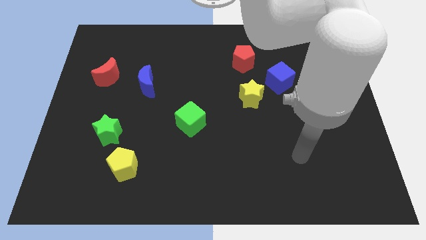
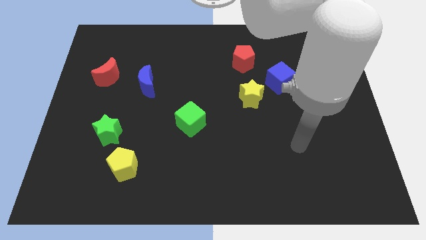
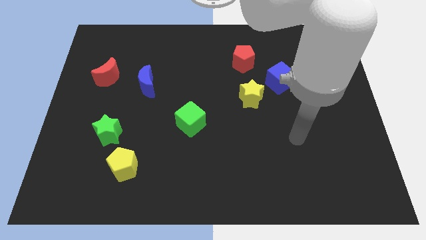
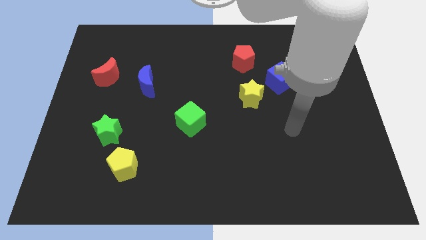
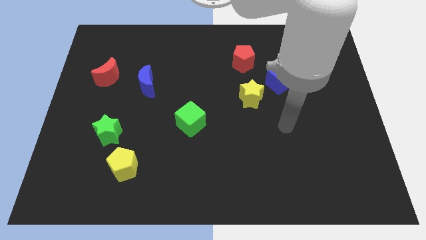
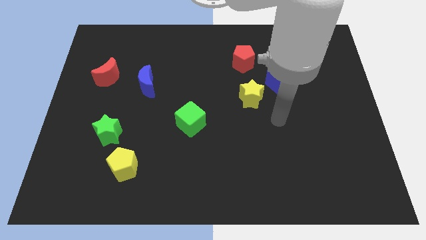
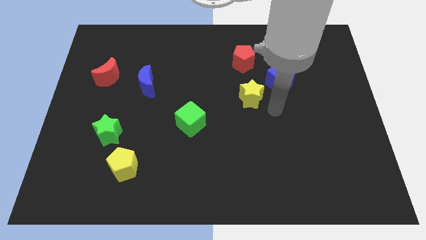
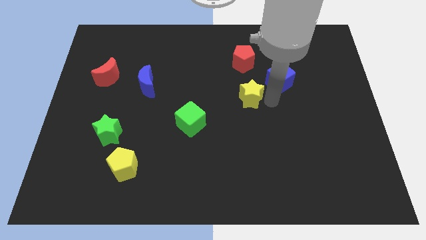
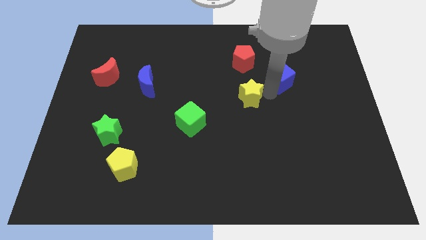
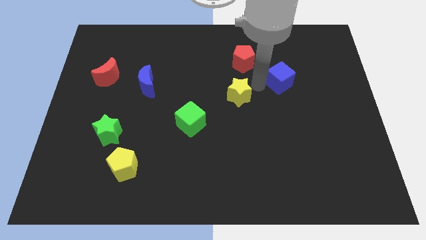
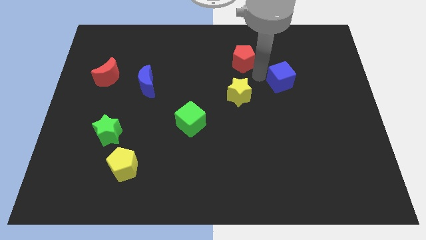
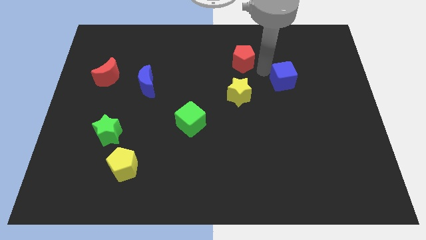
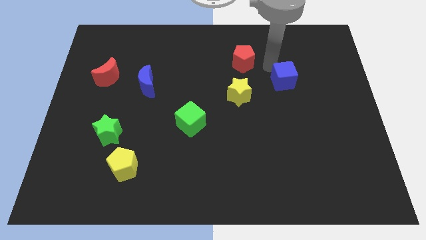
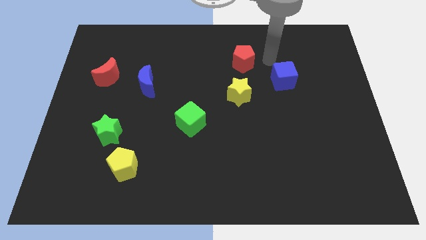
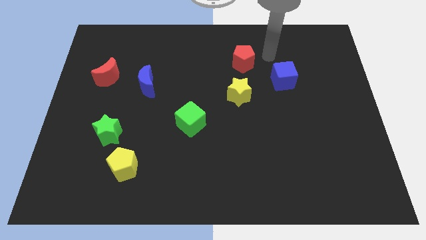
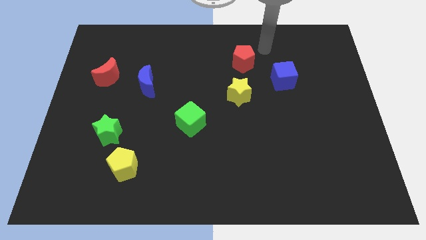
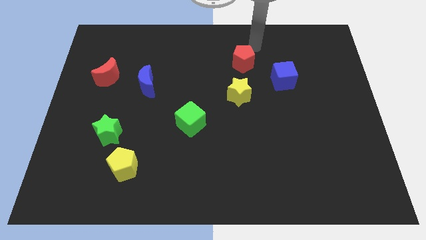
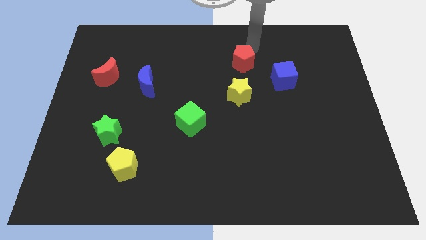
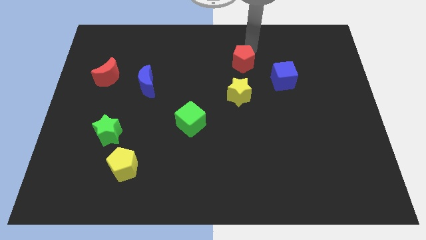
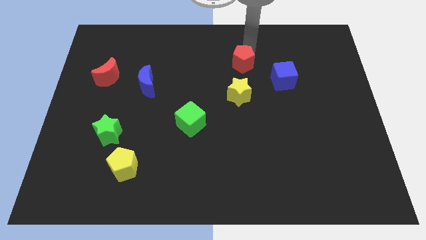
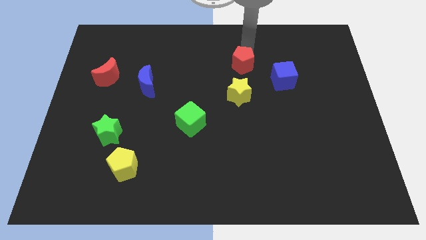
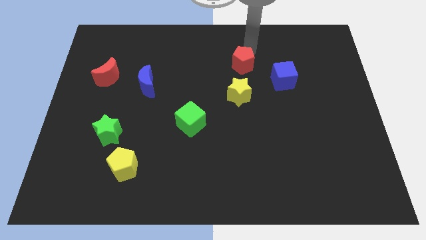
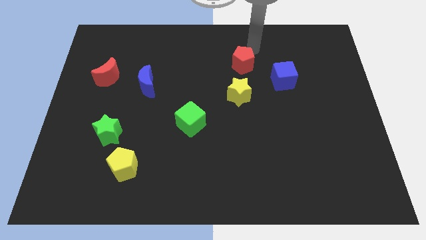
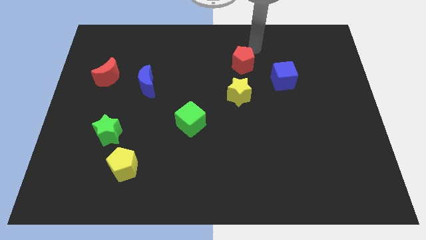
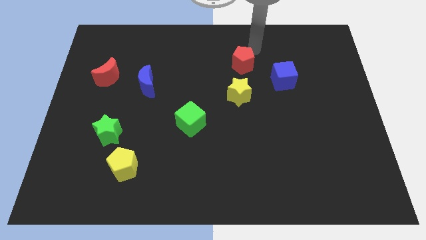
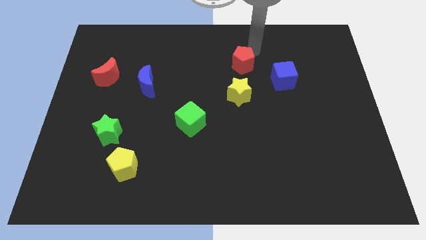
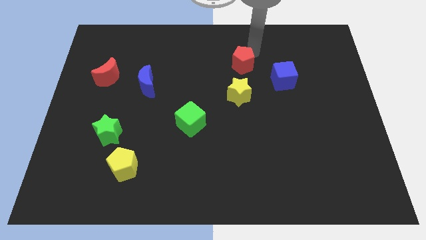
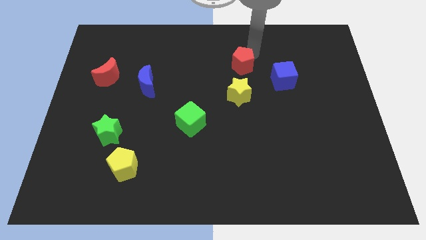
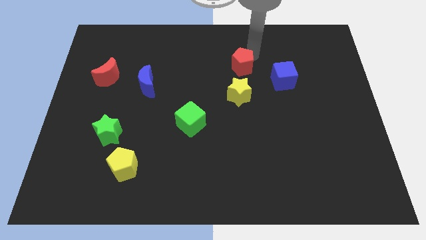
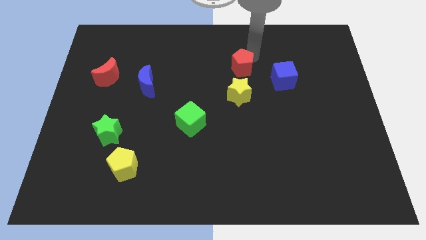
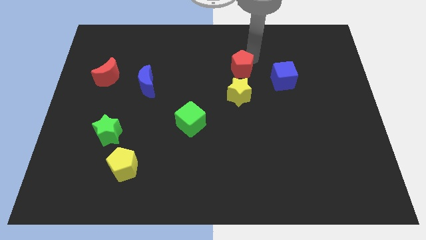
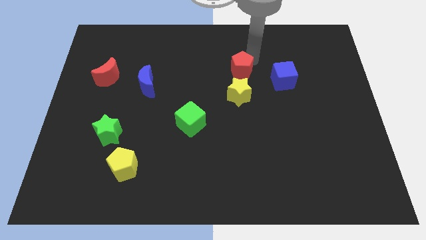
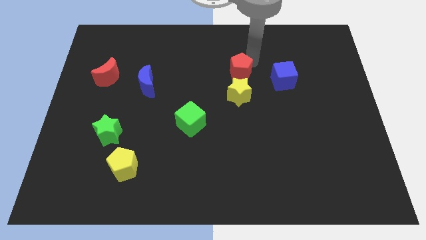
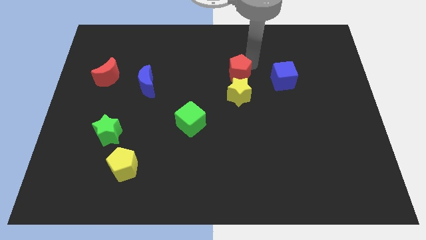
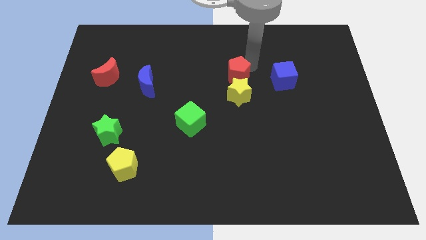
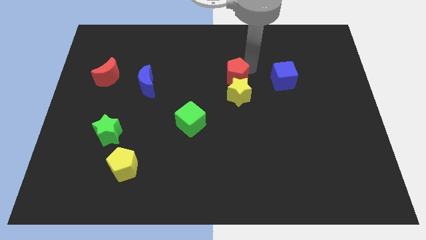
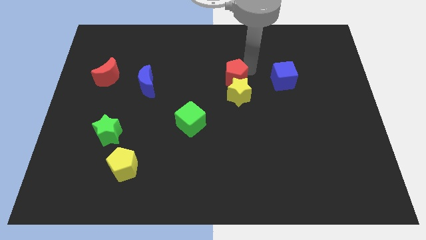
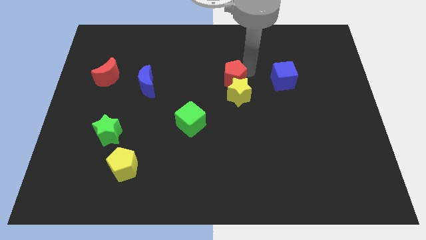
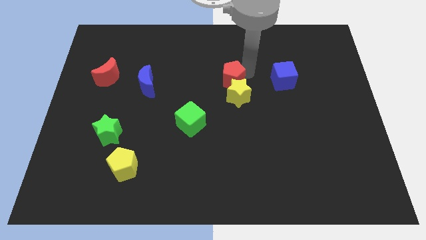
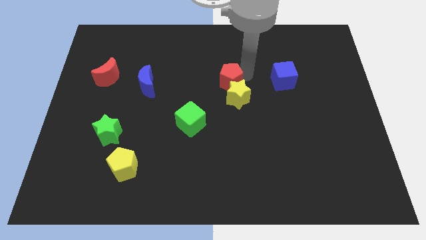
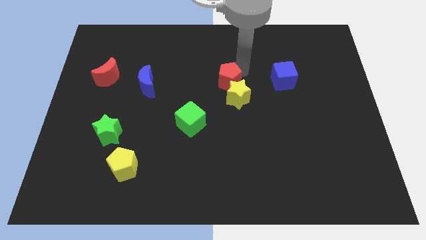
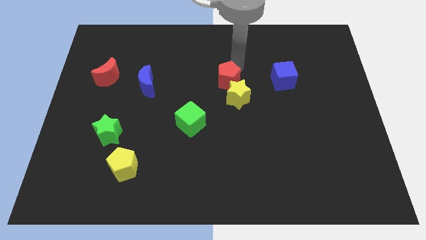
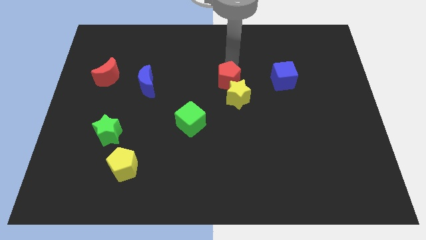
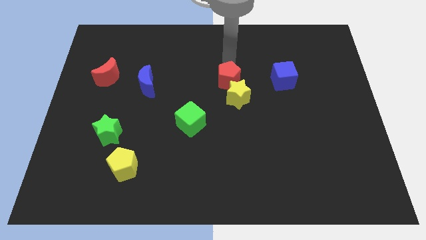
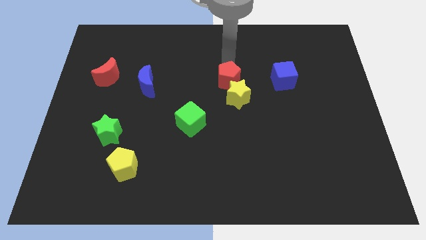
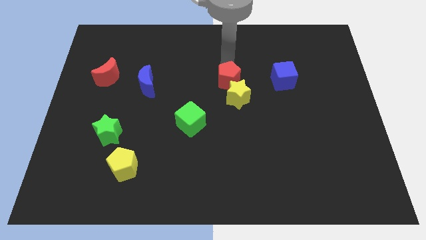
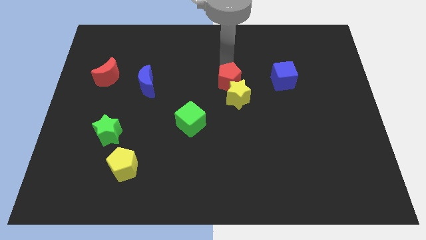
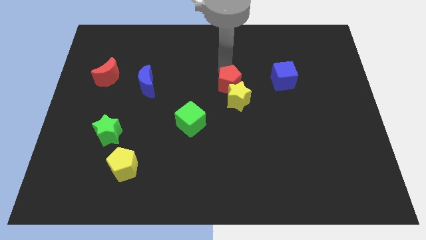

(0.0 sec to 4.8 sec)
slightly push the red pentagon downwards

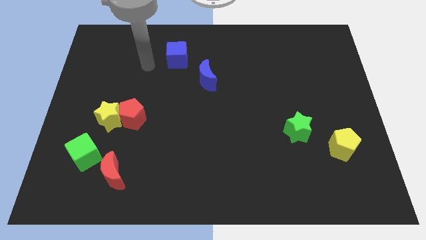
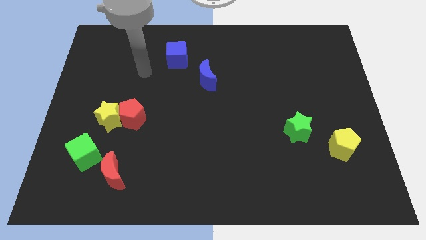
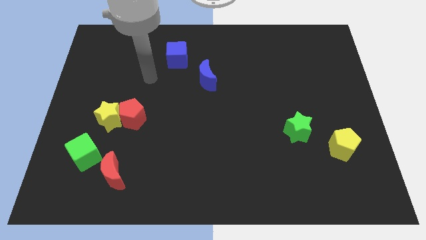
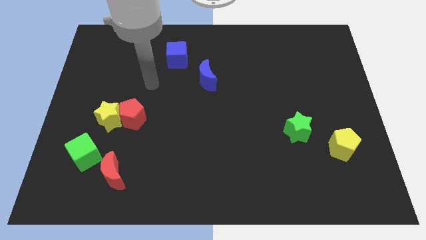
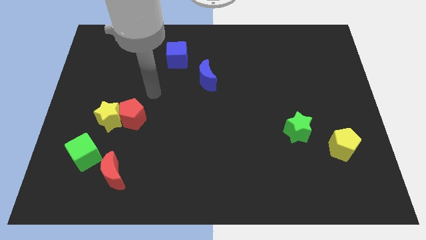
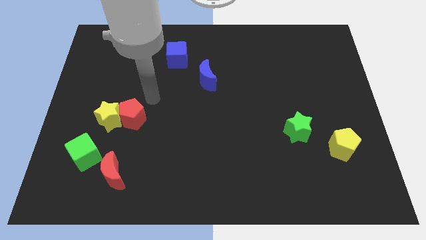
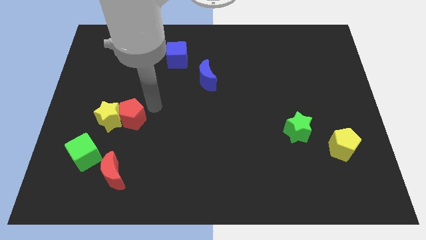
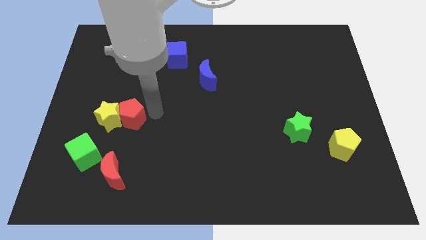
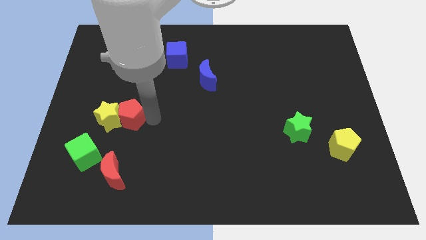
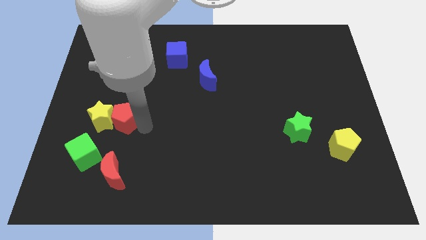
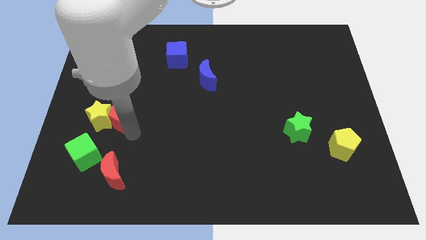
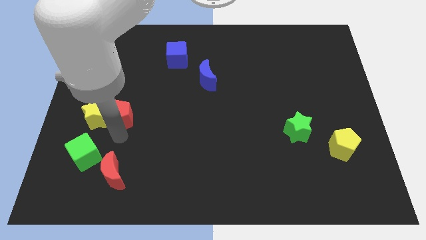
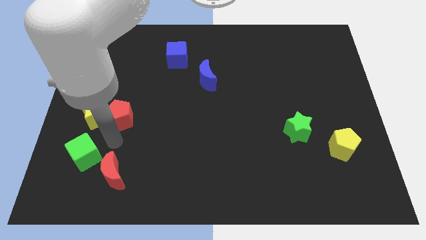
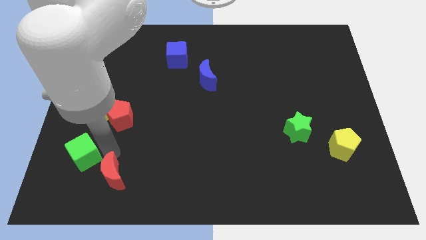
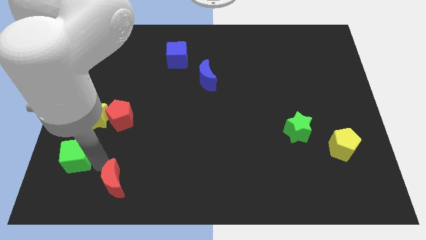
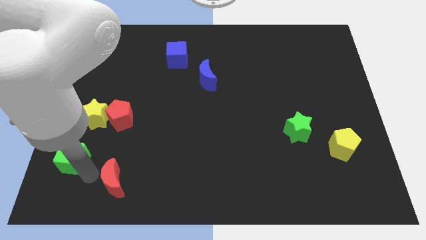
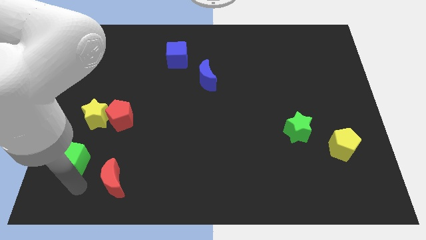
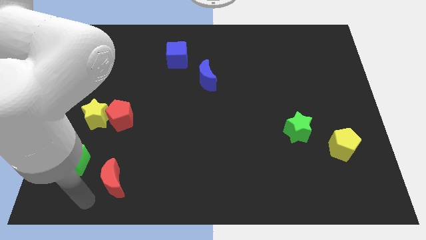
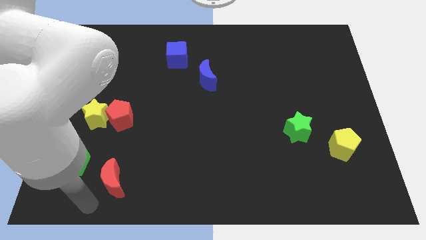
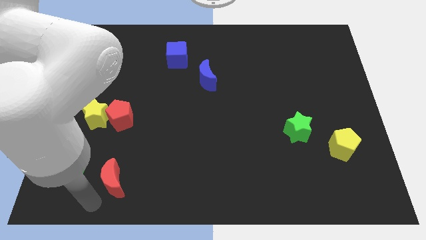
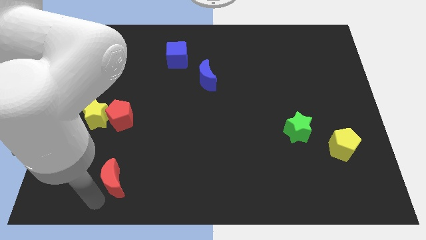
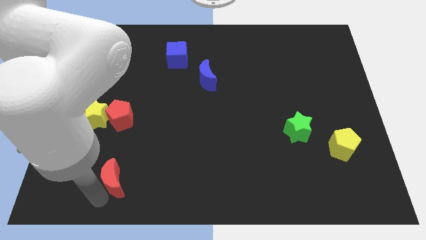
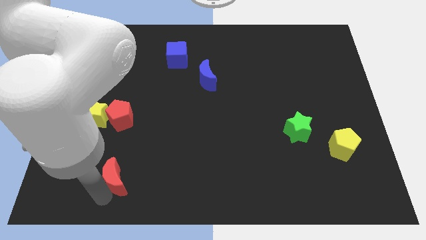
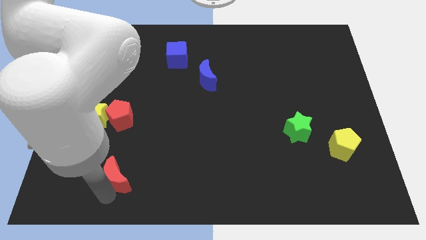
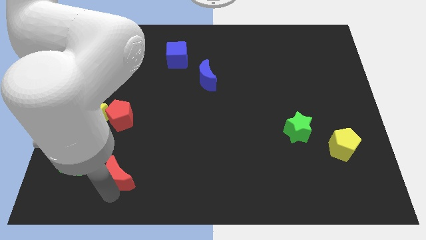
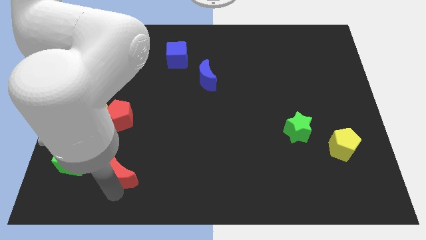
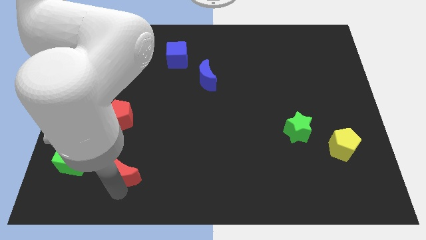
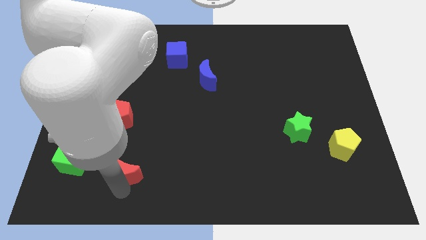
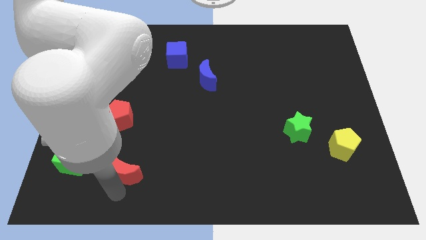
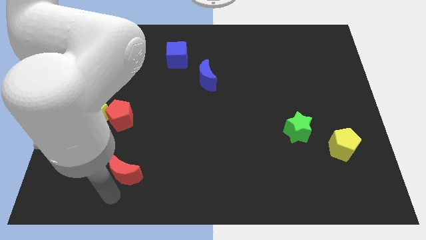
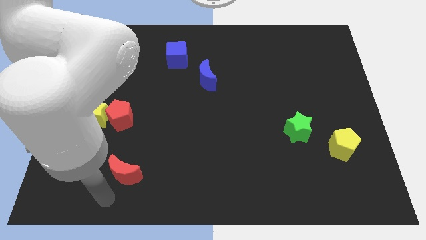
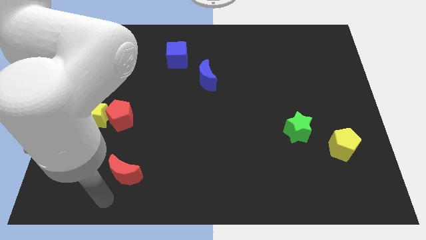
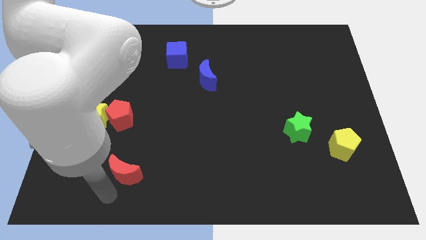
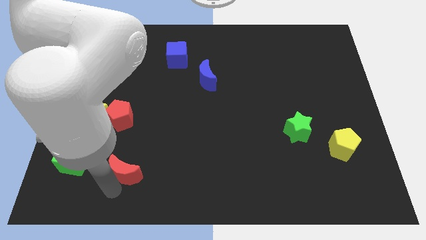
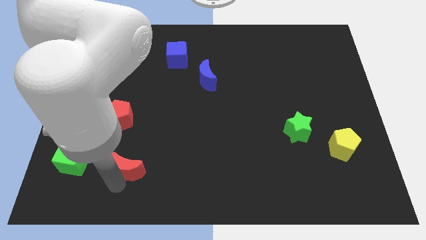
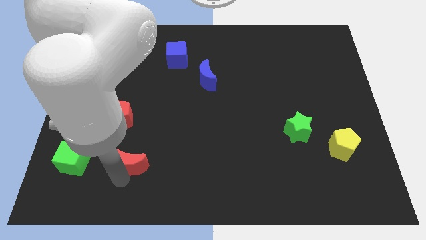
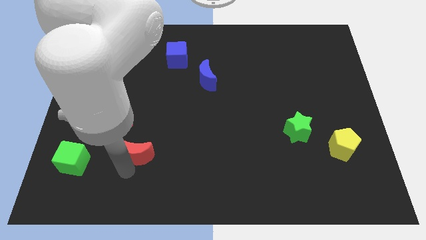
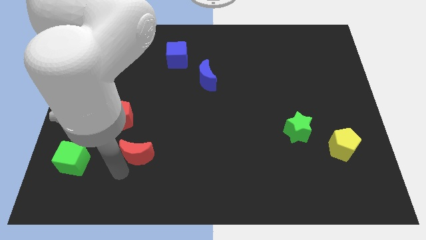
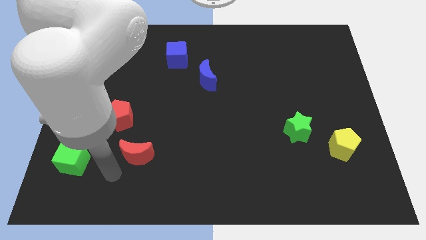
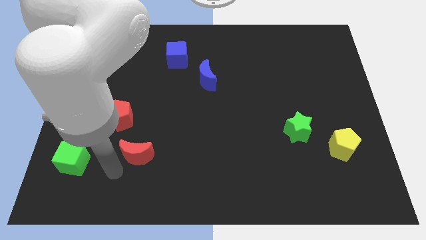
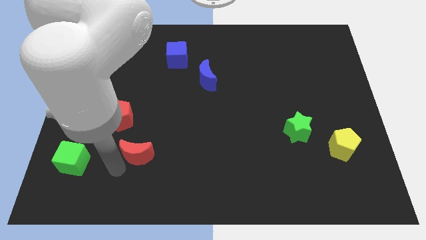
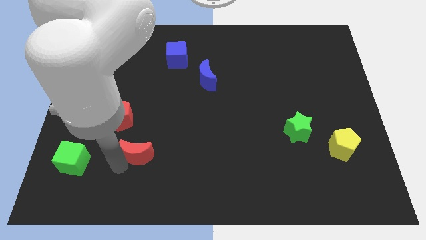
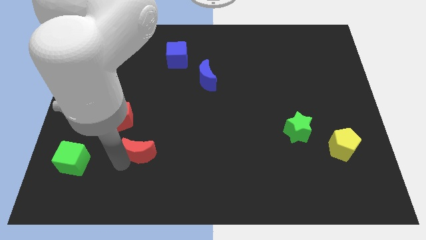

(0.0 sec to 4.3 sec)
slide the red moon a bit upwards and to the right diagonally
